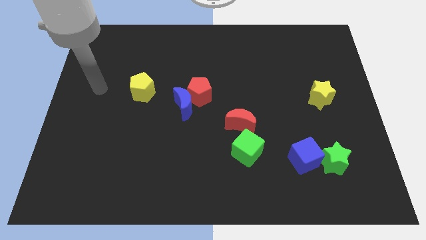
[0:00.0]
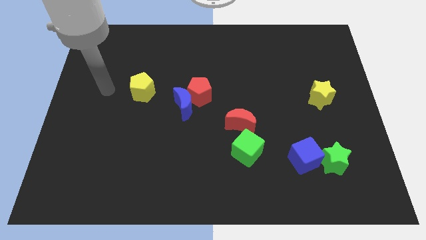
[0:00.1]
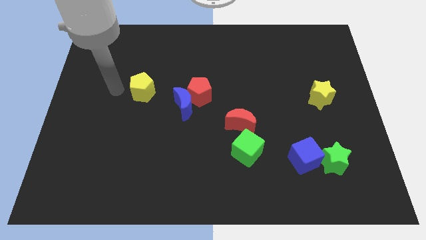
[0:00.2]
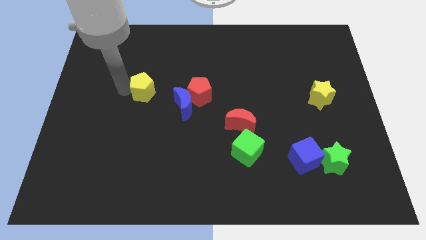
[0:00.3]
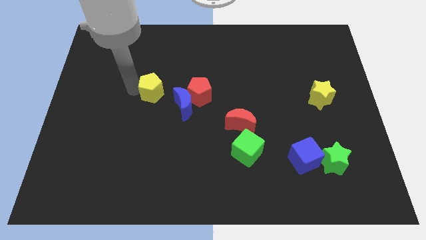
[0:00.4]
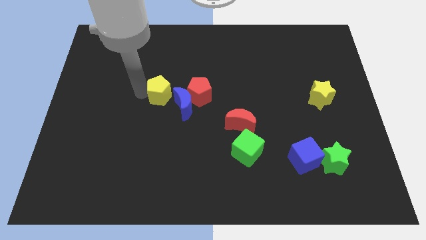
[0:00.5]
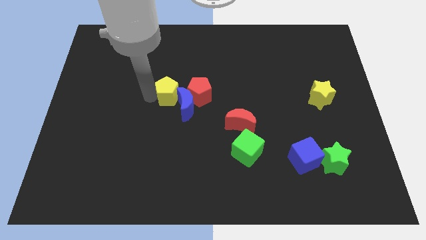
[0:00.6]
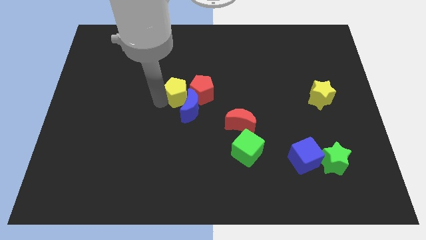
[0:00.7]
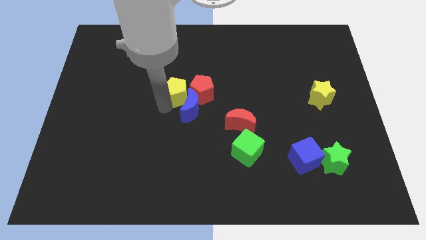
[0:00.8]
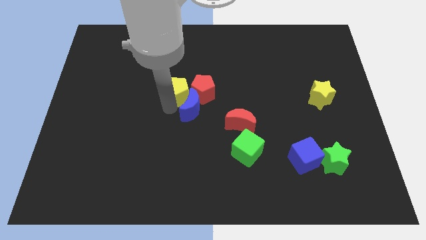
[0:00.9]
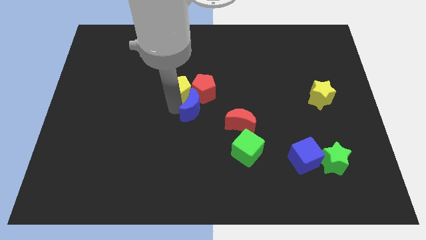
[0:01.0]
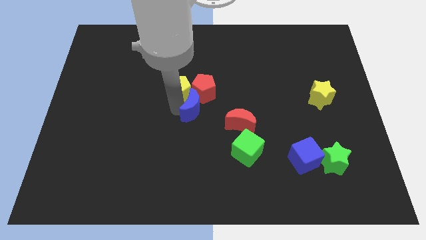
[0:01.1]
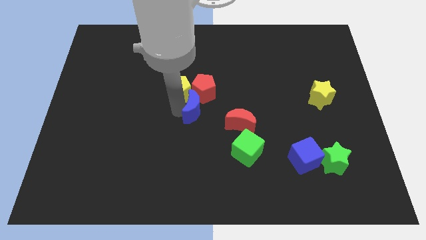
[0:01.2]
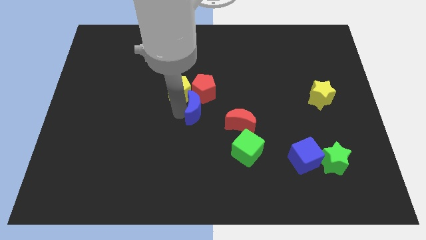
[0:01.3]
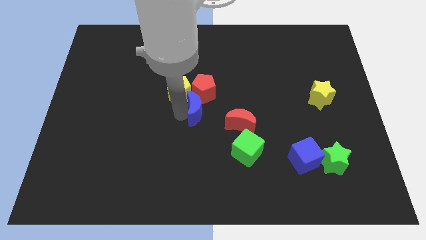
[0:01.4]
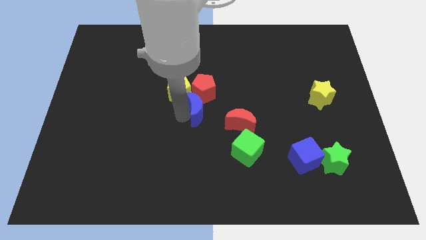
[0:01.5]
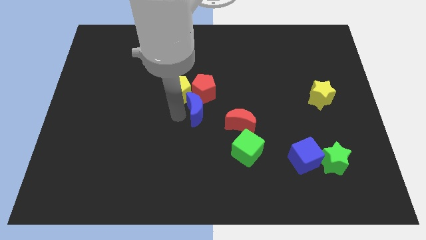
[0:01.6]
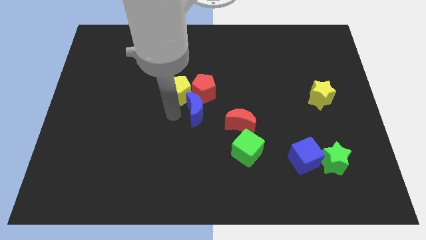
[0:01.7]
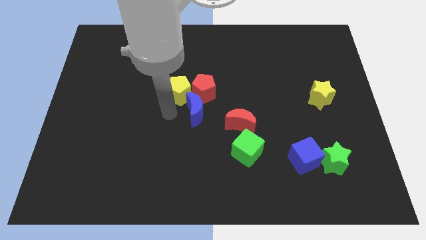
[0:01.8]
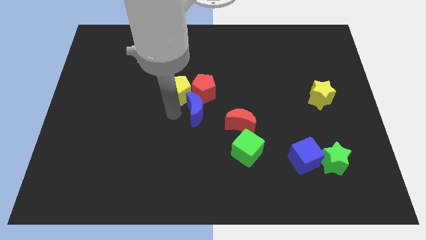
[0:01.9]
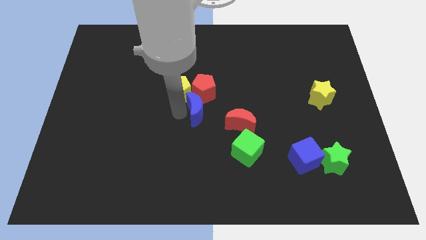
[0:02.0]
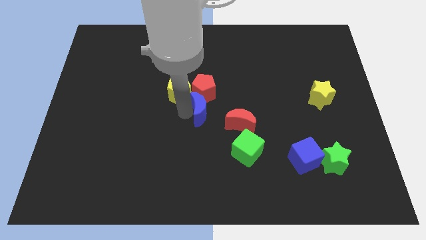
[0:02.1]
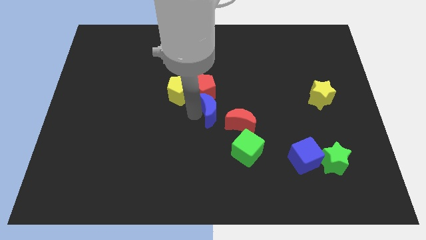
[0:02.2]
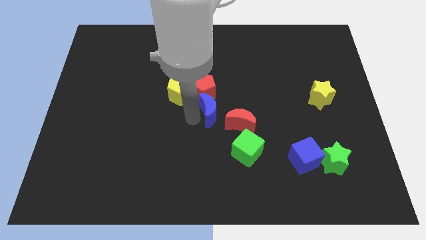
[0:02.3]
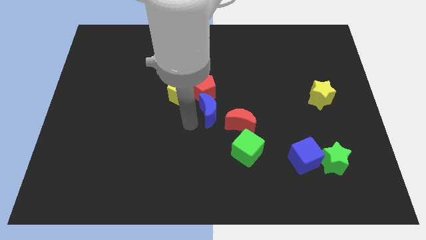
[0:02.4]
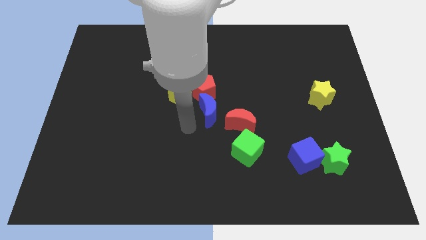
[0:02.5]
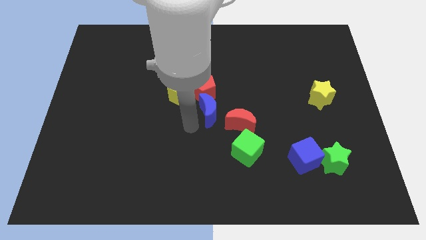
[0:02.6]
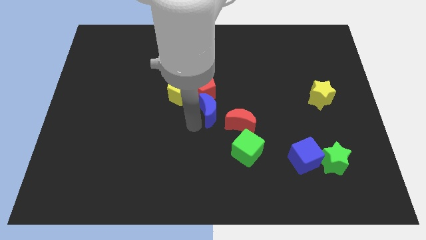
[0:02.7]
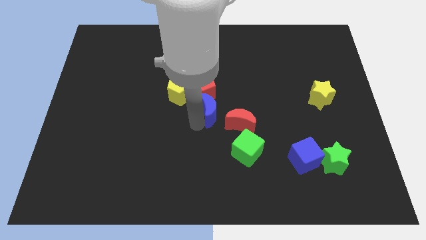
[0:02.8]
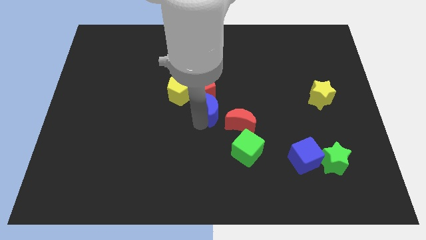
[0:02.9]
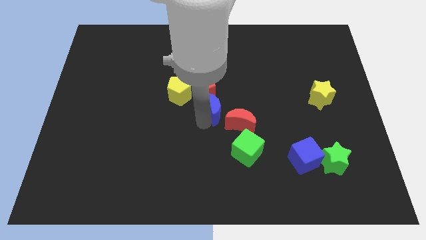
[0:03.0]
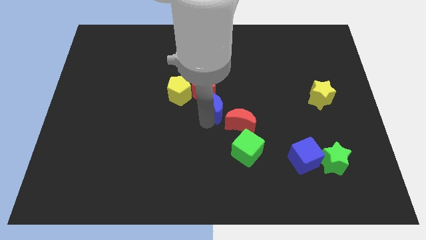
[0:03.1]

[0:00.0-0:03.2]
push the blue moon right slightly

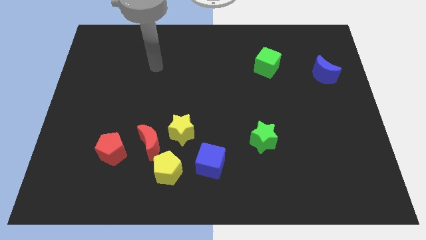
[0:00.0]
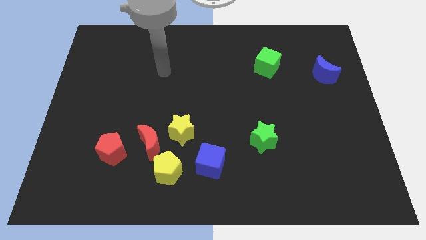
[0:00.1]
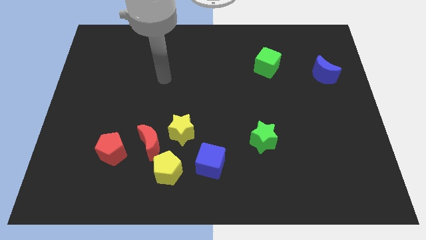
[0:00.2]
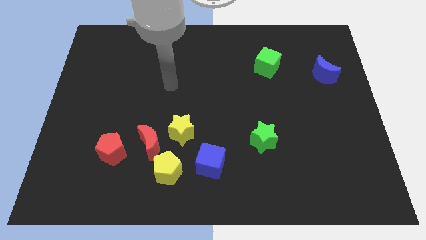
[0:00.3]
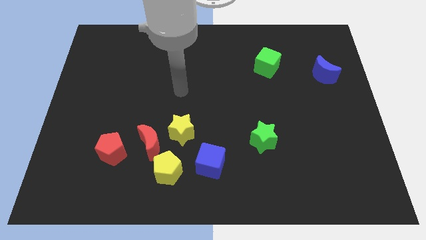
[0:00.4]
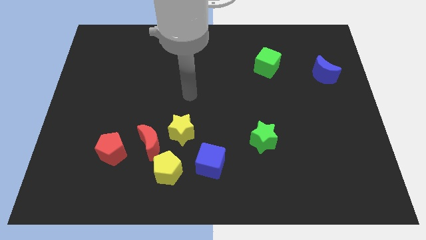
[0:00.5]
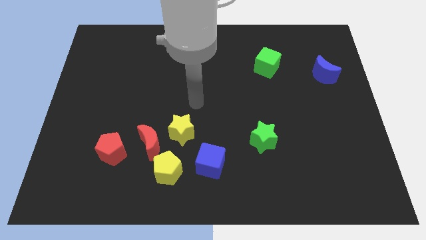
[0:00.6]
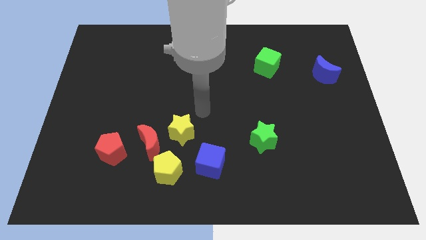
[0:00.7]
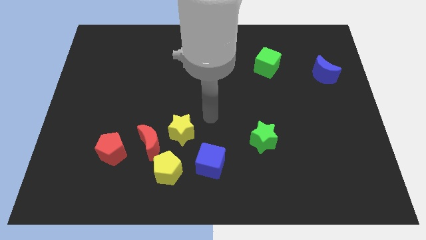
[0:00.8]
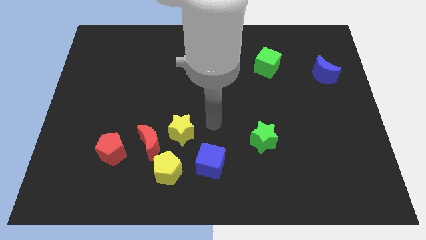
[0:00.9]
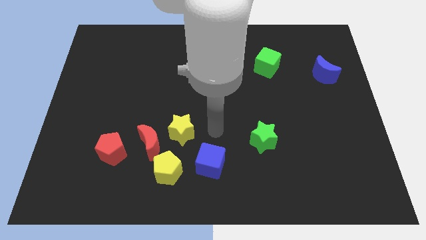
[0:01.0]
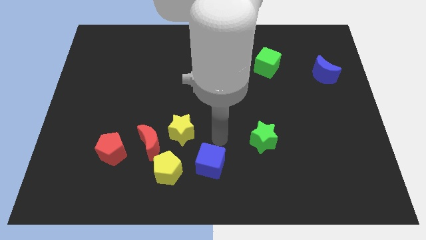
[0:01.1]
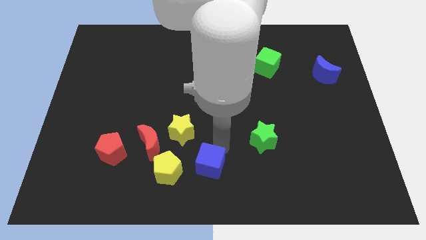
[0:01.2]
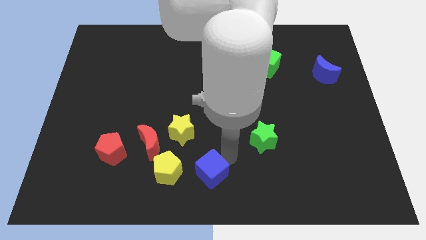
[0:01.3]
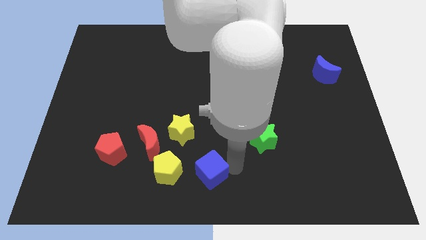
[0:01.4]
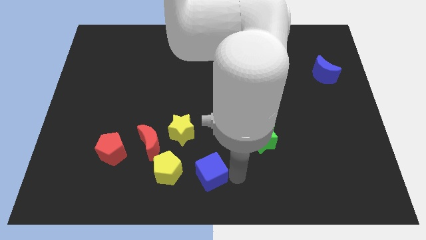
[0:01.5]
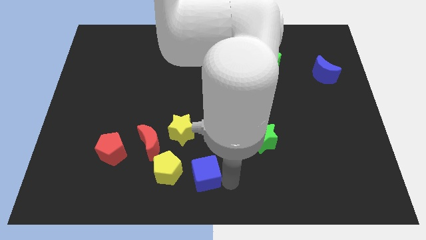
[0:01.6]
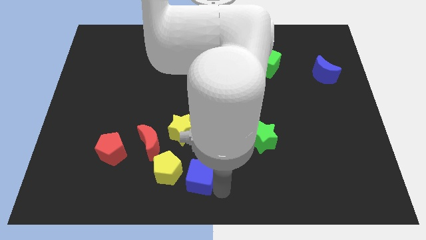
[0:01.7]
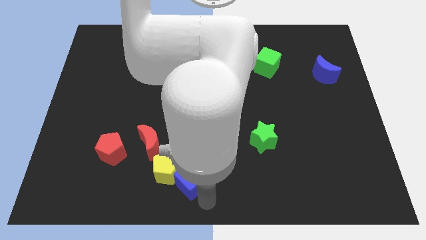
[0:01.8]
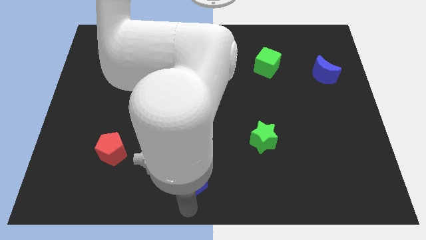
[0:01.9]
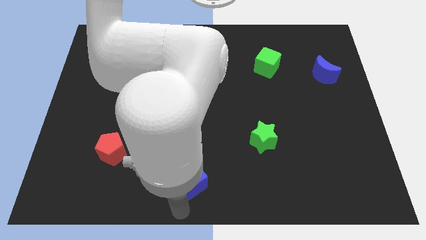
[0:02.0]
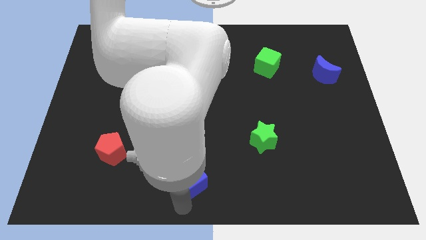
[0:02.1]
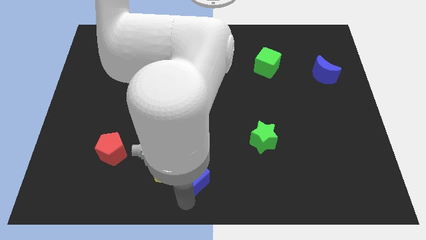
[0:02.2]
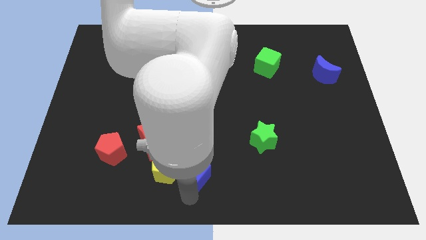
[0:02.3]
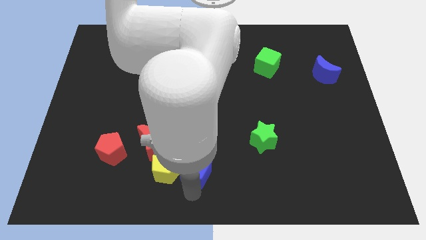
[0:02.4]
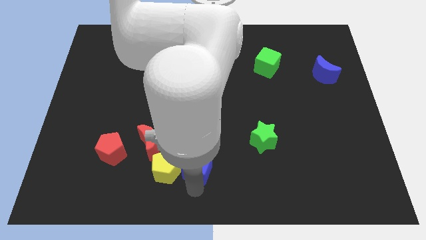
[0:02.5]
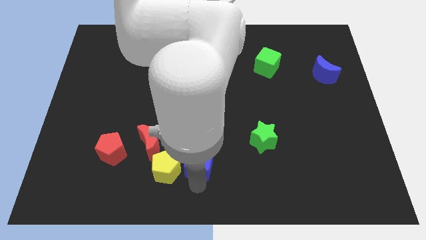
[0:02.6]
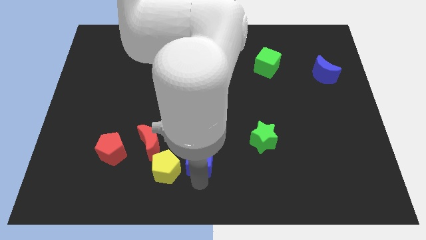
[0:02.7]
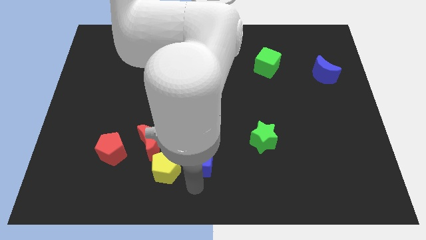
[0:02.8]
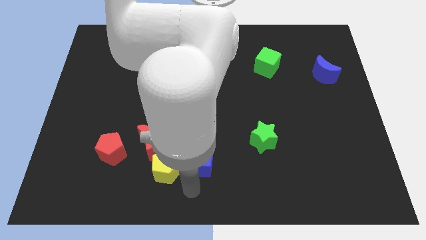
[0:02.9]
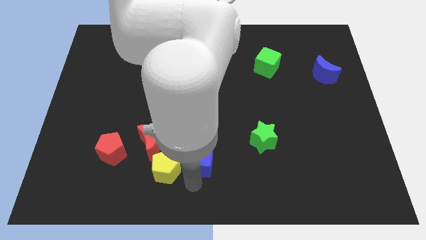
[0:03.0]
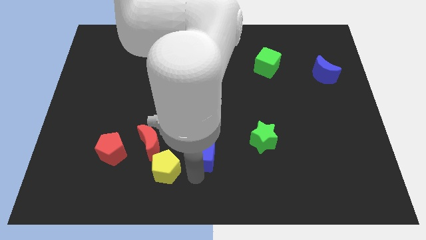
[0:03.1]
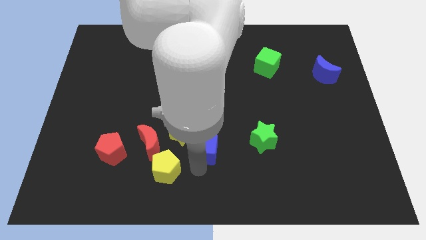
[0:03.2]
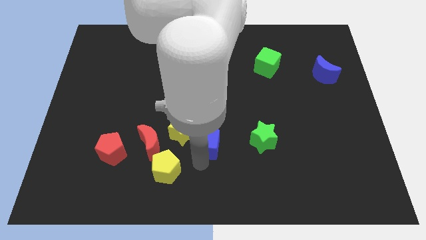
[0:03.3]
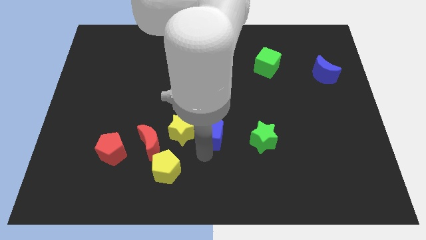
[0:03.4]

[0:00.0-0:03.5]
move the blue cube up a little

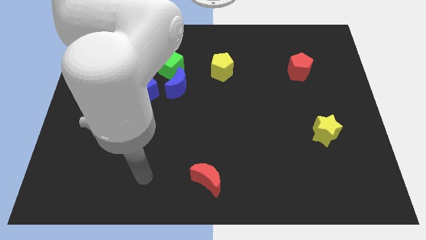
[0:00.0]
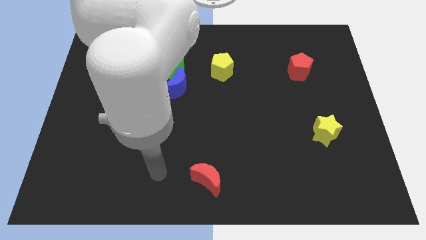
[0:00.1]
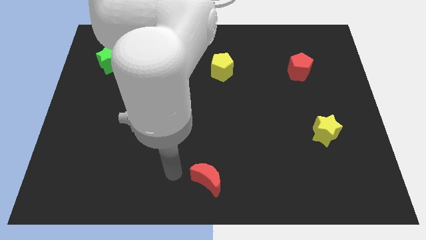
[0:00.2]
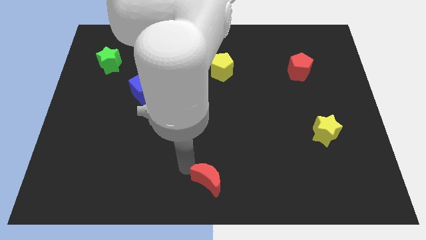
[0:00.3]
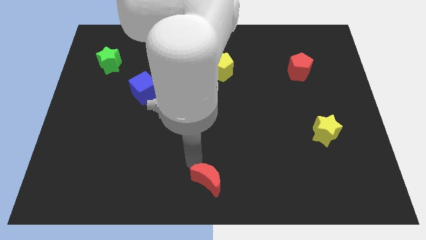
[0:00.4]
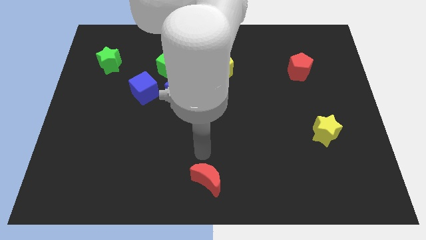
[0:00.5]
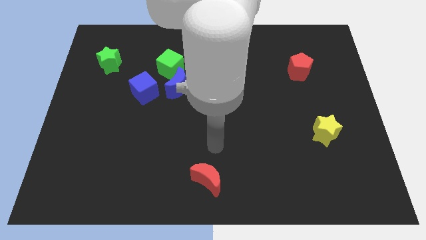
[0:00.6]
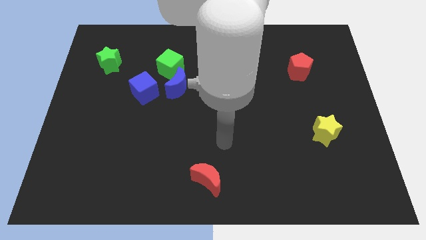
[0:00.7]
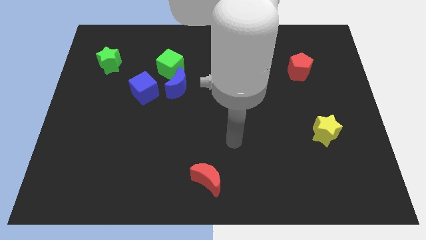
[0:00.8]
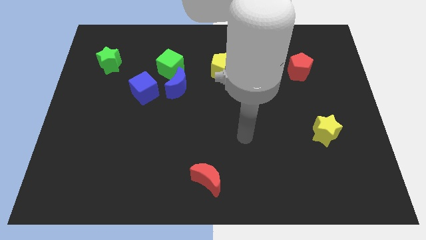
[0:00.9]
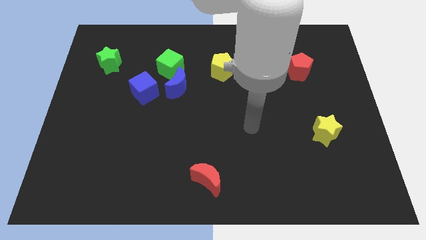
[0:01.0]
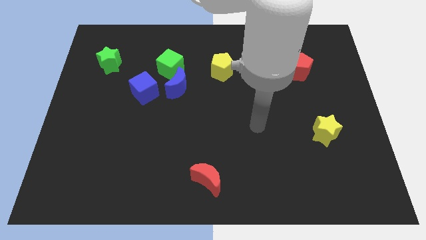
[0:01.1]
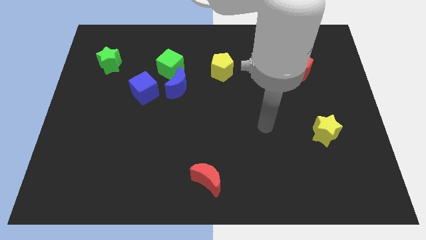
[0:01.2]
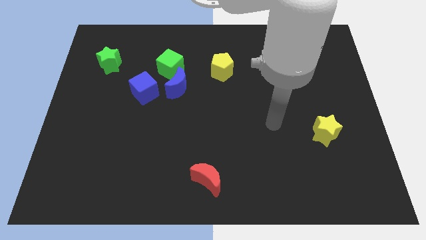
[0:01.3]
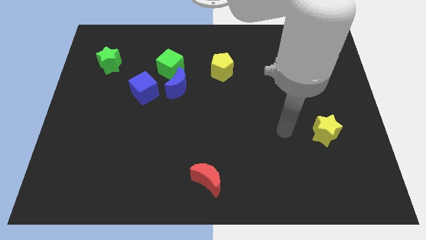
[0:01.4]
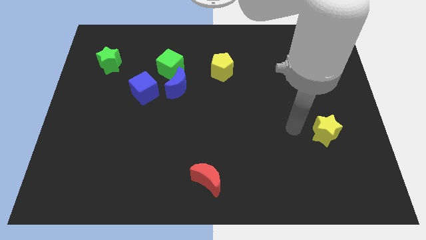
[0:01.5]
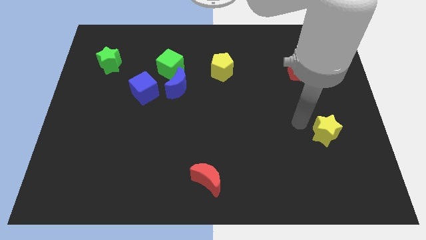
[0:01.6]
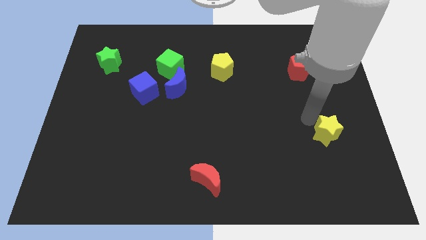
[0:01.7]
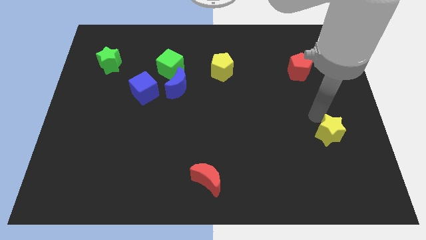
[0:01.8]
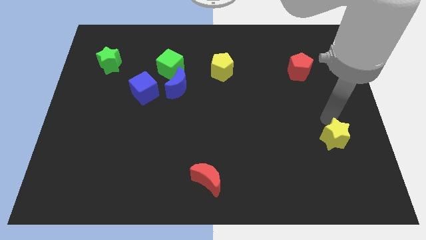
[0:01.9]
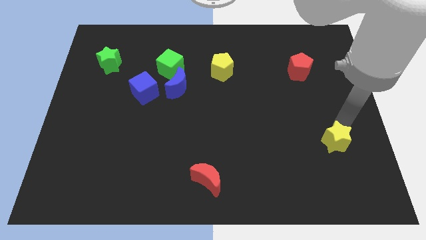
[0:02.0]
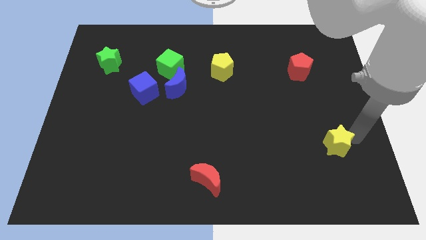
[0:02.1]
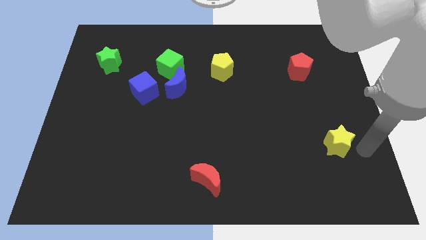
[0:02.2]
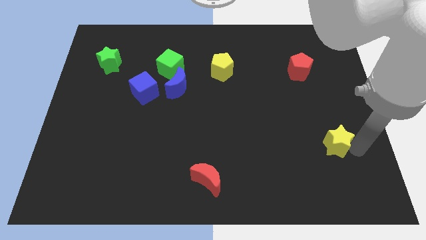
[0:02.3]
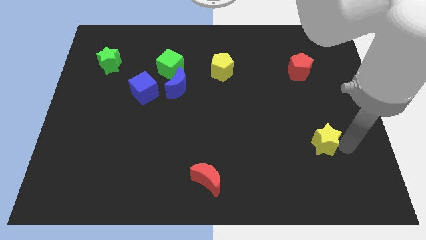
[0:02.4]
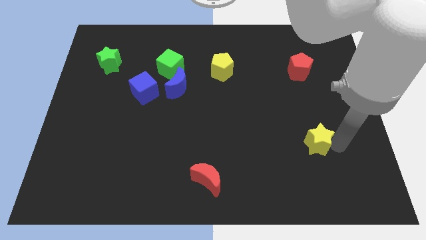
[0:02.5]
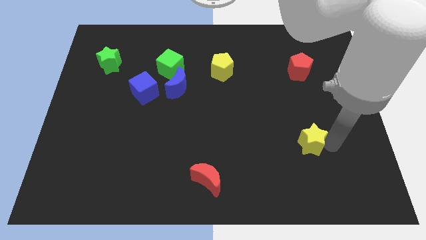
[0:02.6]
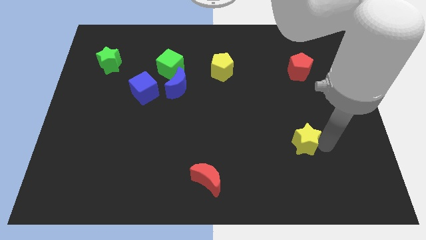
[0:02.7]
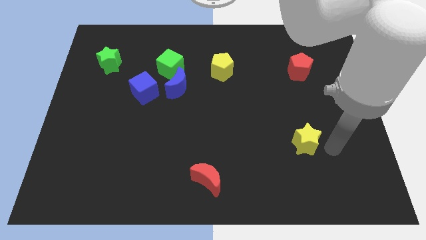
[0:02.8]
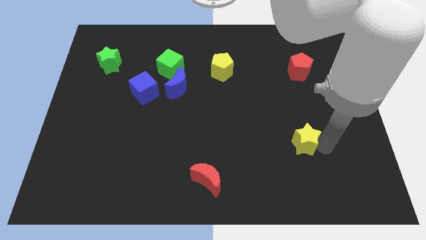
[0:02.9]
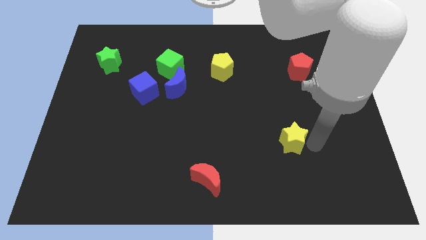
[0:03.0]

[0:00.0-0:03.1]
move the yellow star left a little bit
